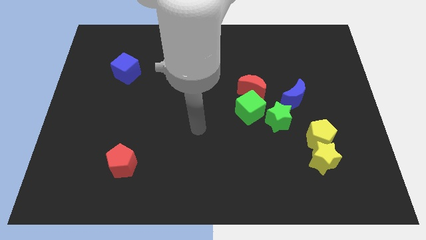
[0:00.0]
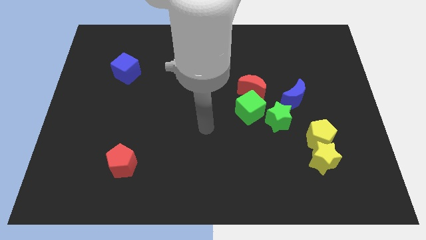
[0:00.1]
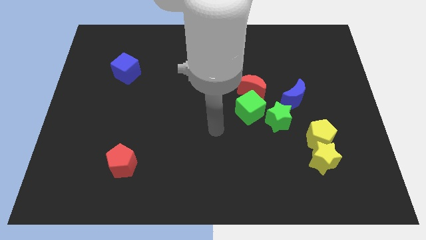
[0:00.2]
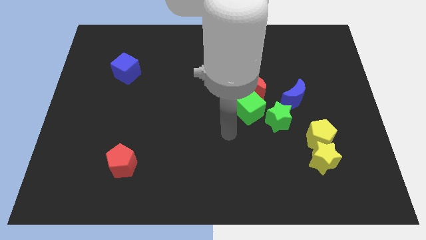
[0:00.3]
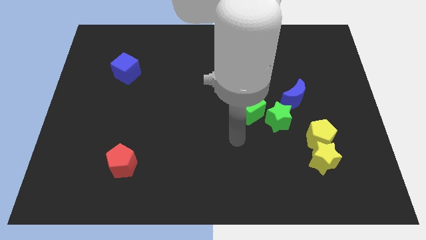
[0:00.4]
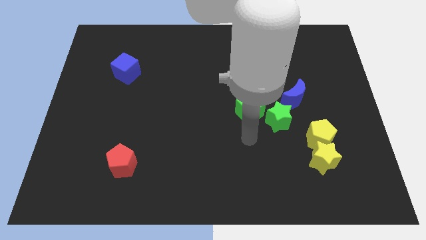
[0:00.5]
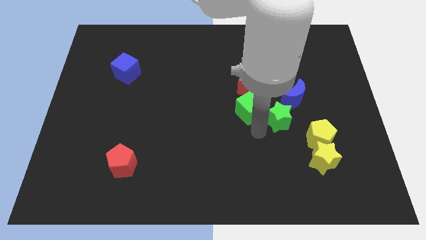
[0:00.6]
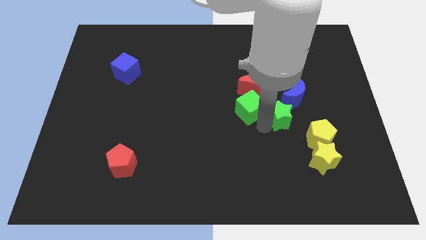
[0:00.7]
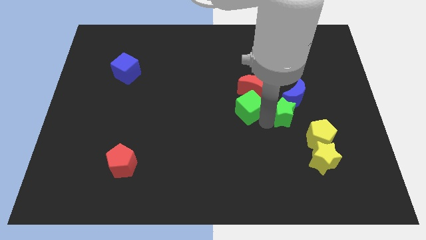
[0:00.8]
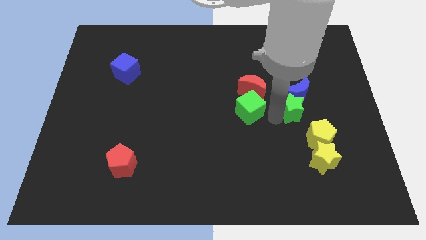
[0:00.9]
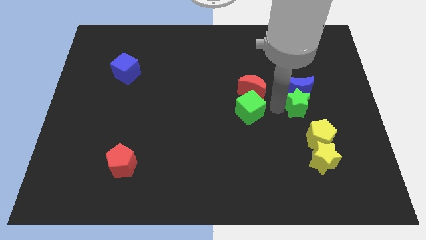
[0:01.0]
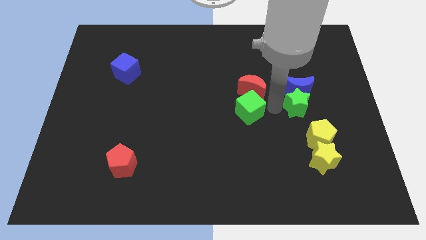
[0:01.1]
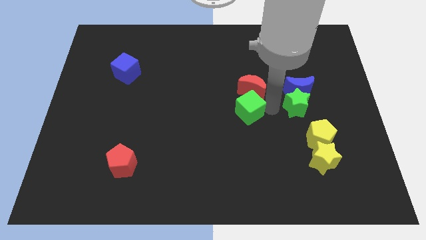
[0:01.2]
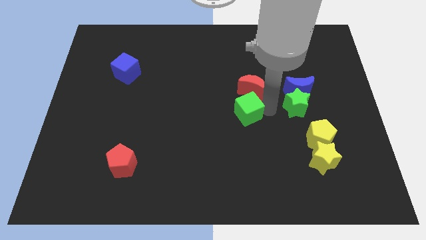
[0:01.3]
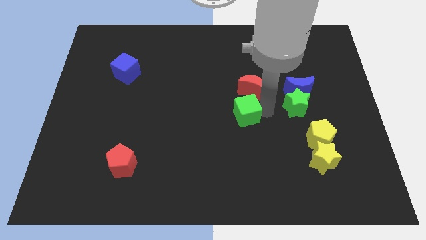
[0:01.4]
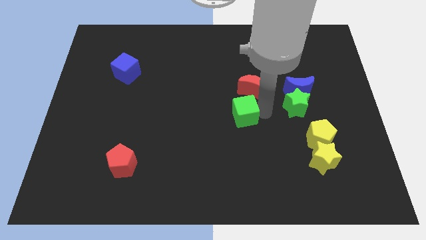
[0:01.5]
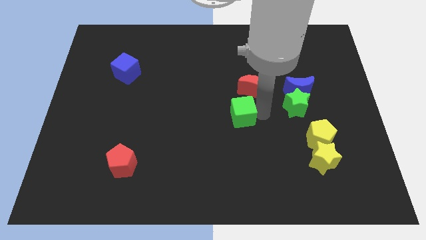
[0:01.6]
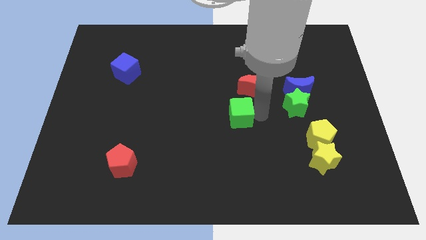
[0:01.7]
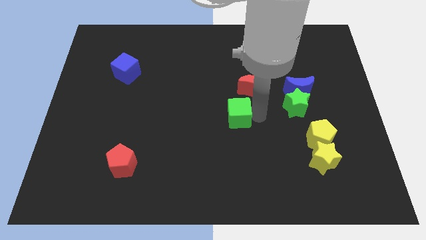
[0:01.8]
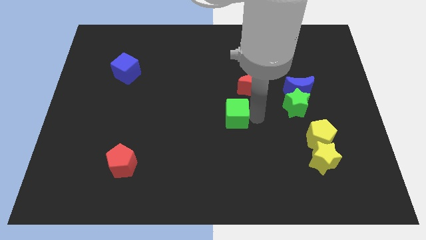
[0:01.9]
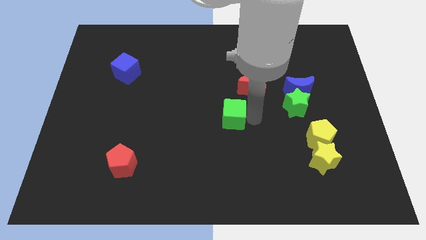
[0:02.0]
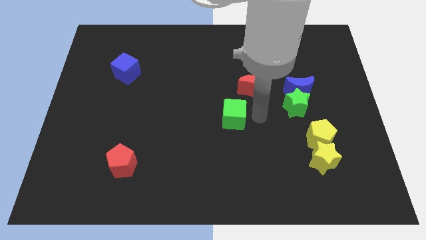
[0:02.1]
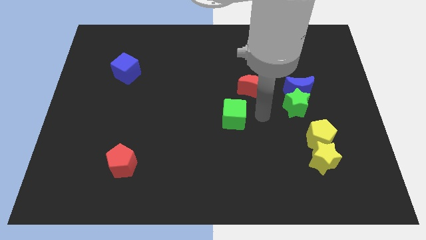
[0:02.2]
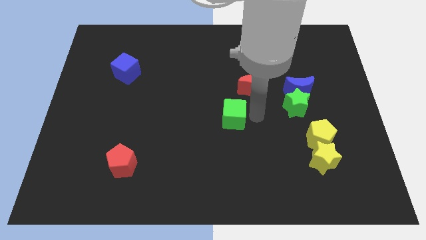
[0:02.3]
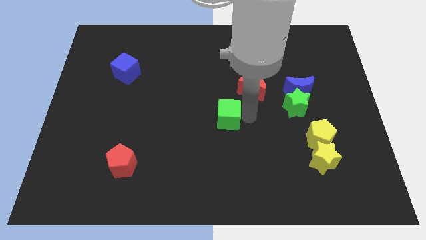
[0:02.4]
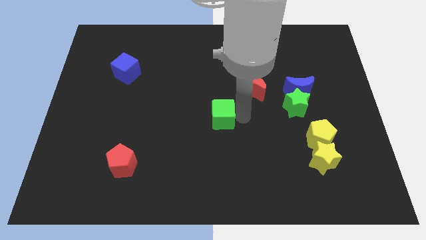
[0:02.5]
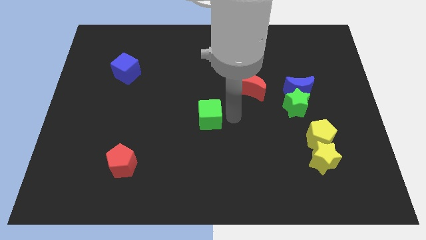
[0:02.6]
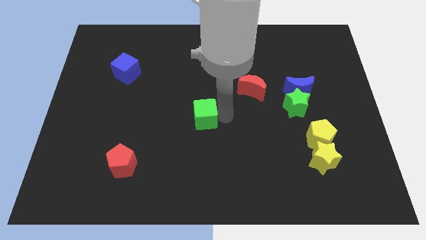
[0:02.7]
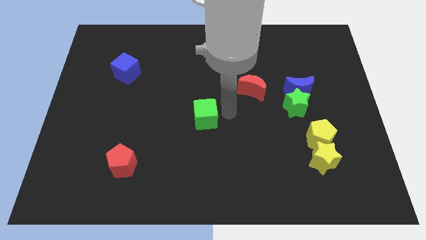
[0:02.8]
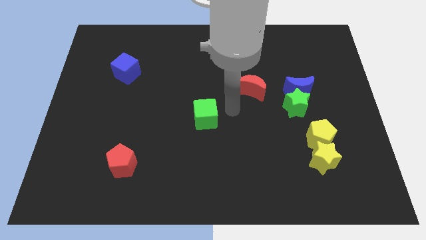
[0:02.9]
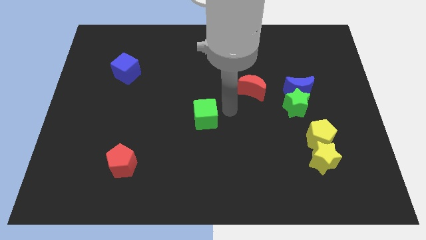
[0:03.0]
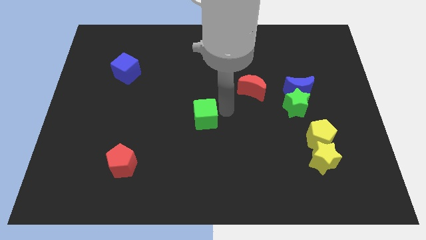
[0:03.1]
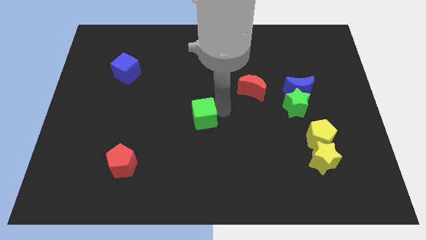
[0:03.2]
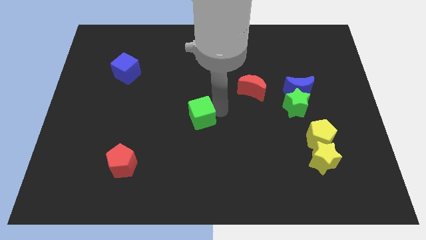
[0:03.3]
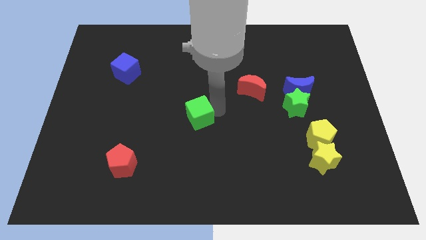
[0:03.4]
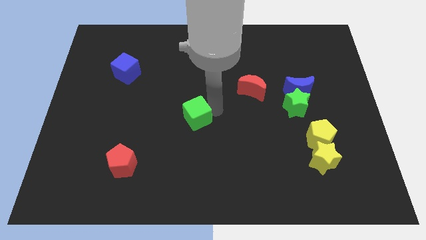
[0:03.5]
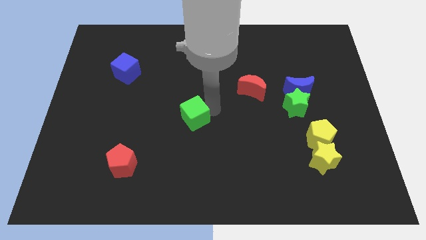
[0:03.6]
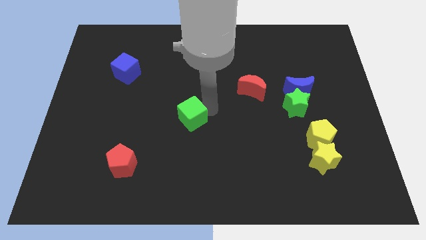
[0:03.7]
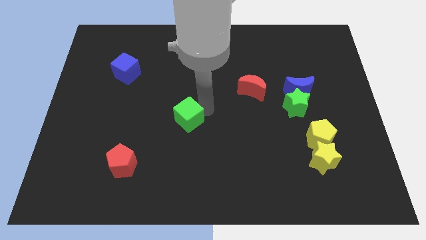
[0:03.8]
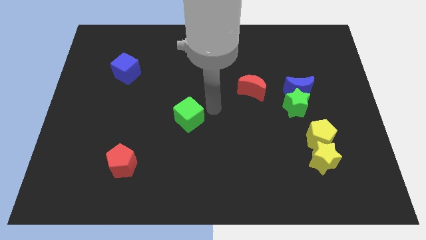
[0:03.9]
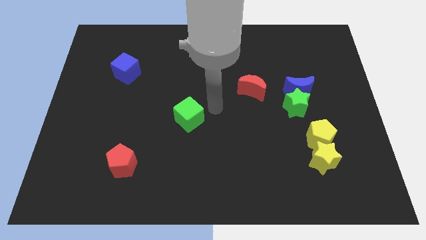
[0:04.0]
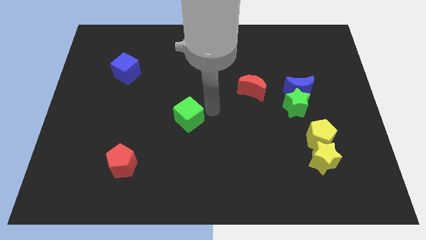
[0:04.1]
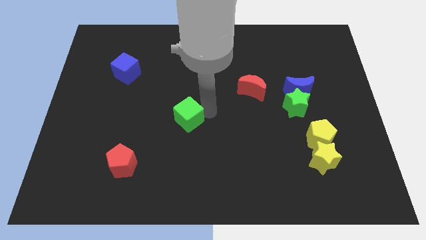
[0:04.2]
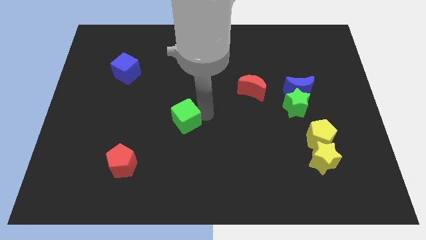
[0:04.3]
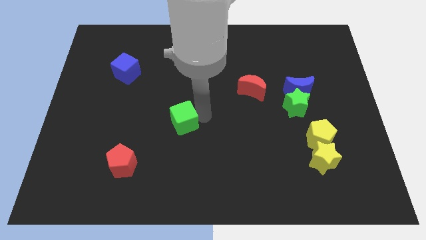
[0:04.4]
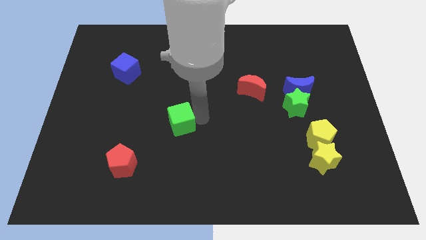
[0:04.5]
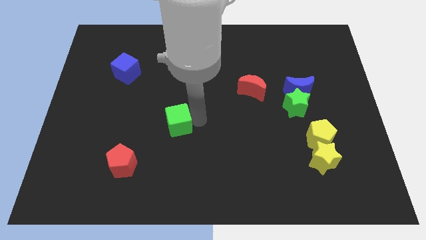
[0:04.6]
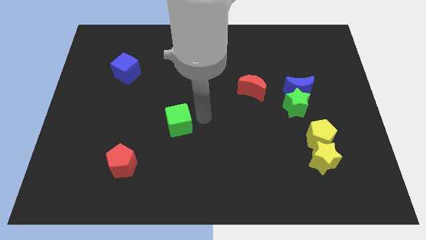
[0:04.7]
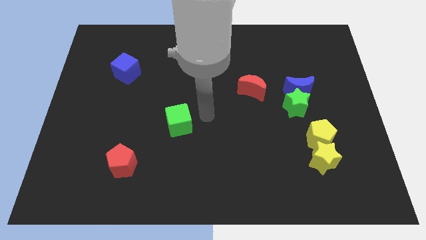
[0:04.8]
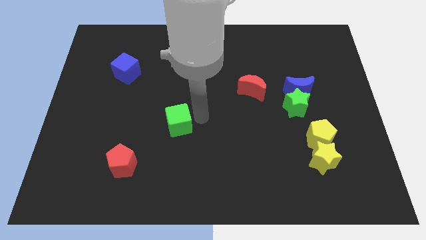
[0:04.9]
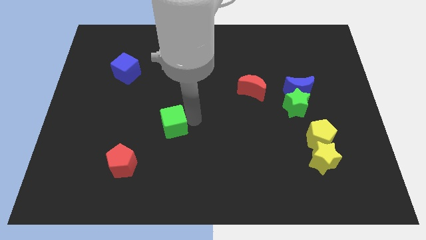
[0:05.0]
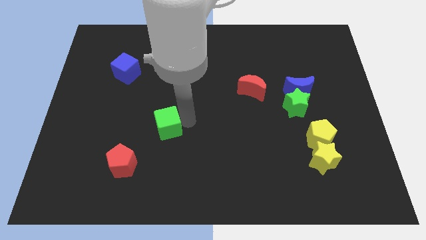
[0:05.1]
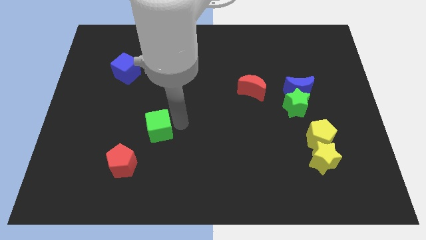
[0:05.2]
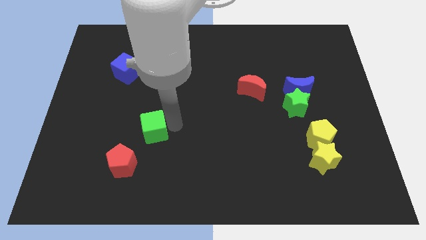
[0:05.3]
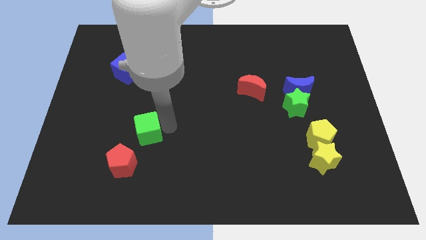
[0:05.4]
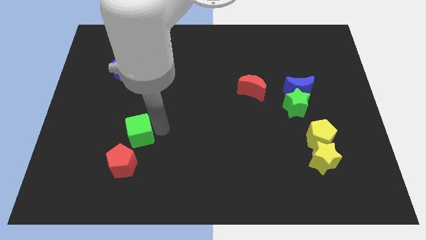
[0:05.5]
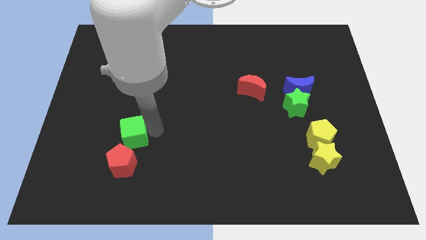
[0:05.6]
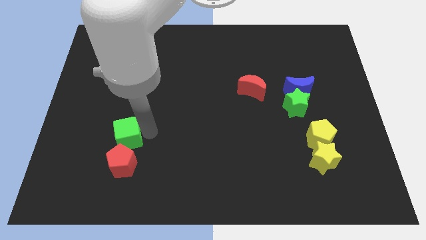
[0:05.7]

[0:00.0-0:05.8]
slide the green cube diagonally up and to the left of the red pentagon

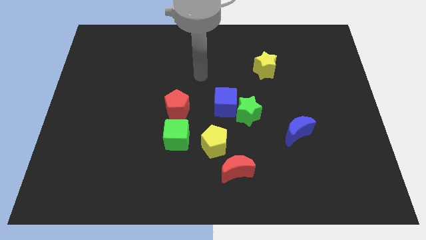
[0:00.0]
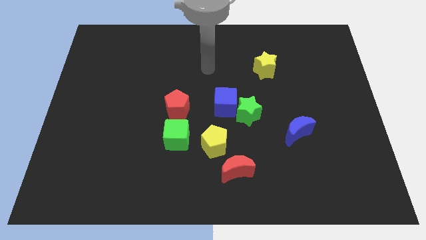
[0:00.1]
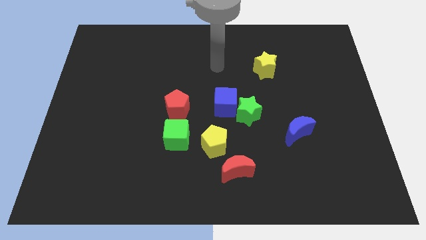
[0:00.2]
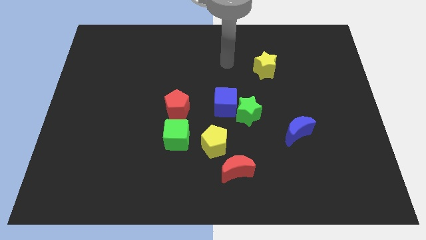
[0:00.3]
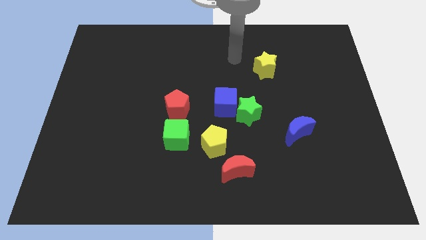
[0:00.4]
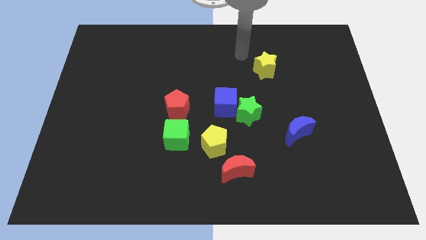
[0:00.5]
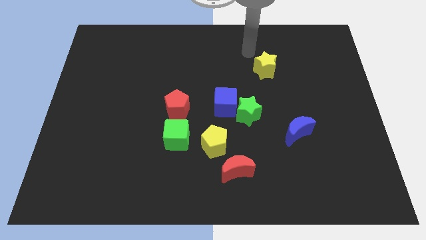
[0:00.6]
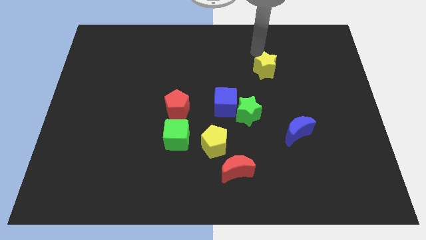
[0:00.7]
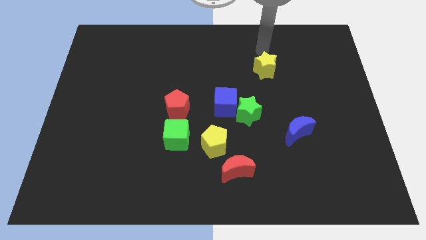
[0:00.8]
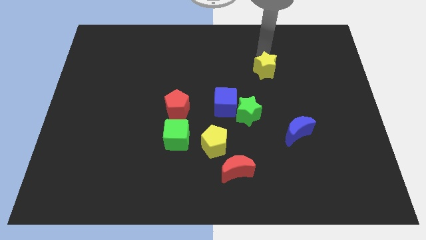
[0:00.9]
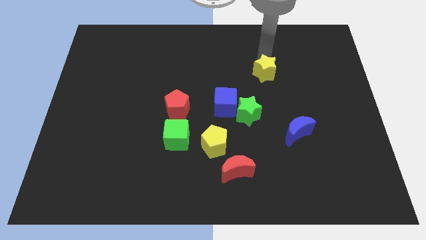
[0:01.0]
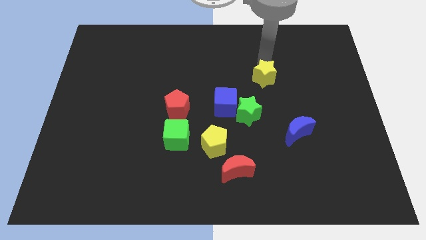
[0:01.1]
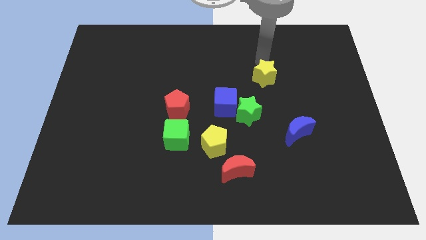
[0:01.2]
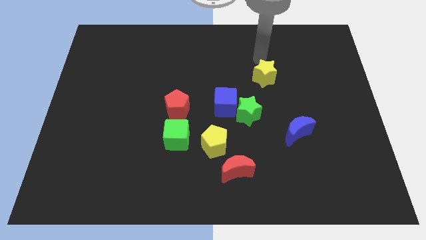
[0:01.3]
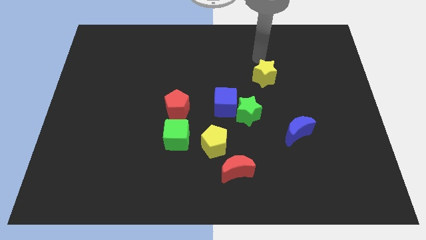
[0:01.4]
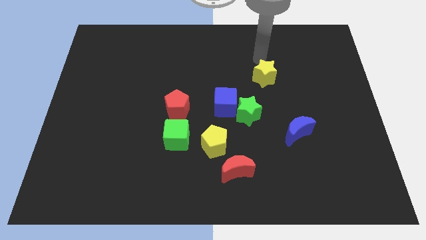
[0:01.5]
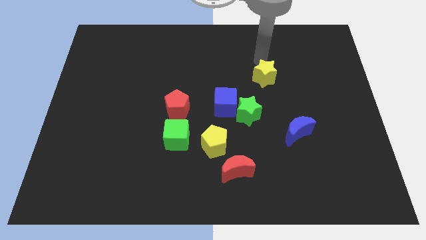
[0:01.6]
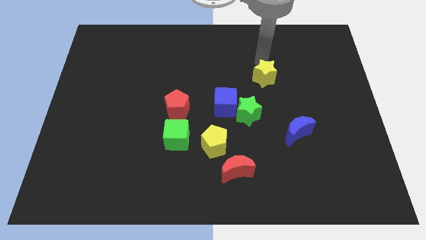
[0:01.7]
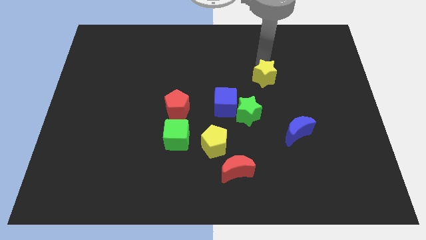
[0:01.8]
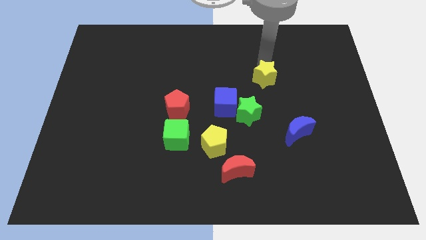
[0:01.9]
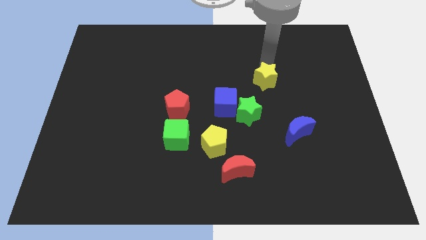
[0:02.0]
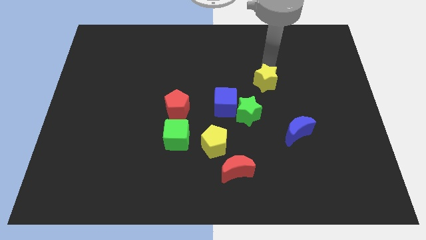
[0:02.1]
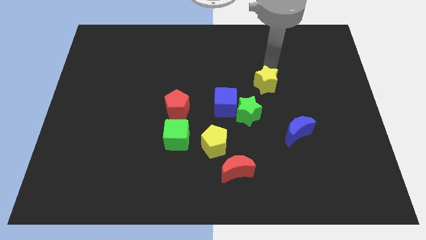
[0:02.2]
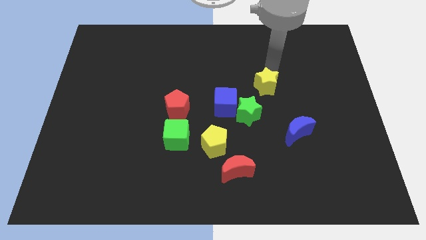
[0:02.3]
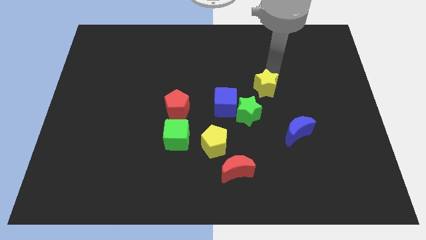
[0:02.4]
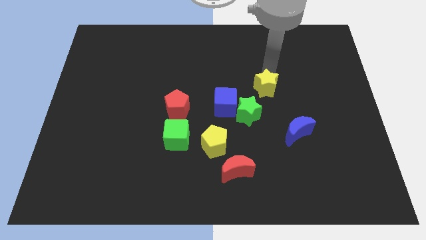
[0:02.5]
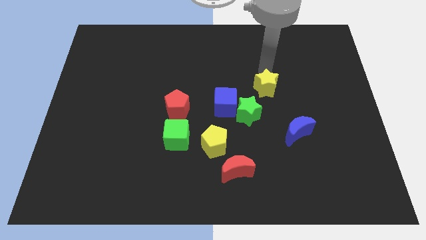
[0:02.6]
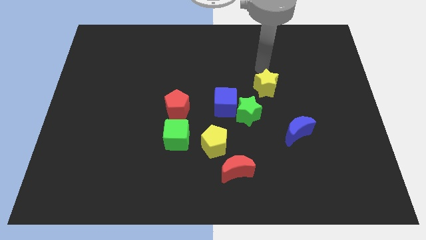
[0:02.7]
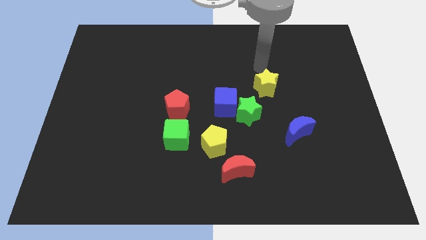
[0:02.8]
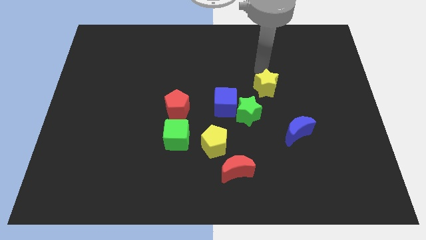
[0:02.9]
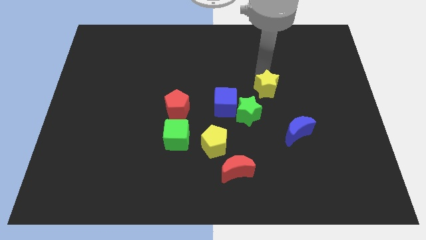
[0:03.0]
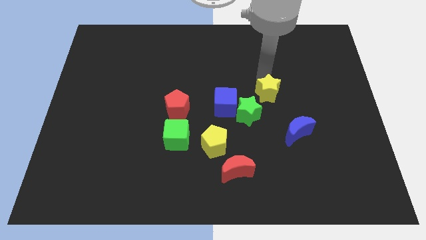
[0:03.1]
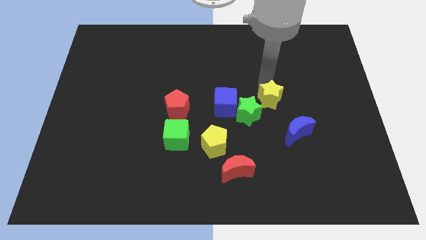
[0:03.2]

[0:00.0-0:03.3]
put the yellow star to the top left of the blue moon
